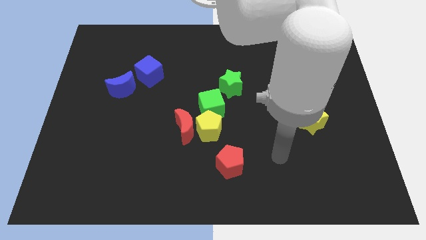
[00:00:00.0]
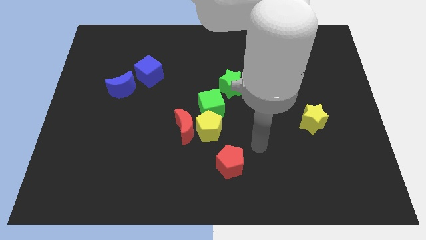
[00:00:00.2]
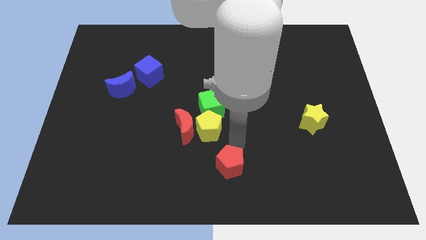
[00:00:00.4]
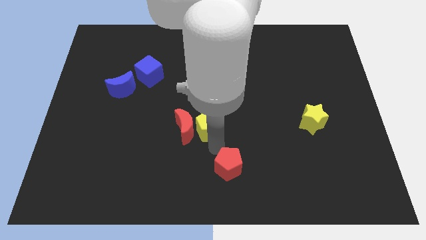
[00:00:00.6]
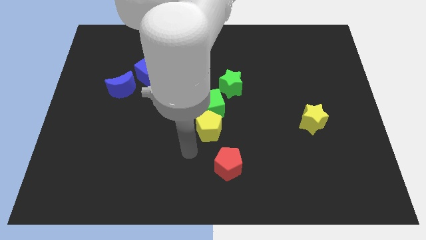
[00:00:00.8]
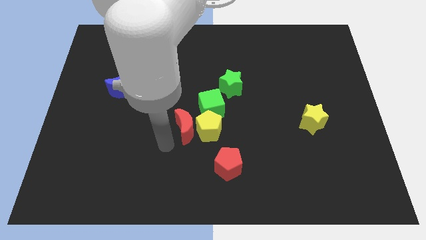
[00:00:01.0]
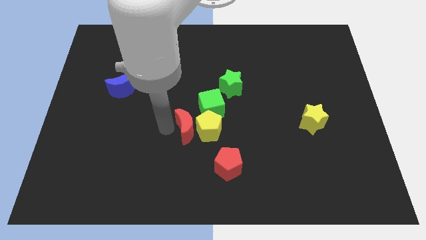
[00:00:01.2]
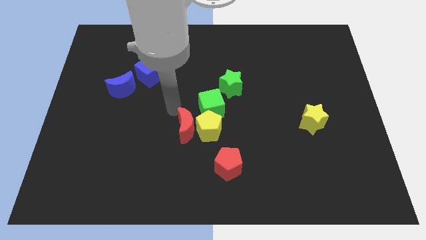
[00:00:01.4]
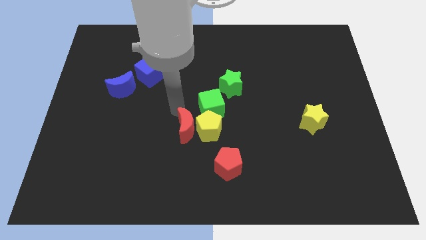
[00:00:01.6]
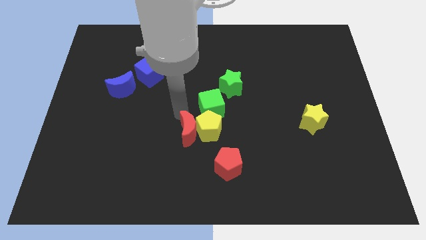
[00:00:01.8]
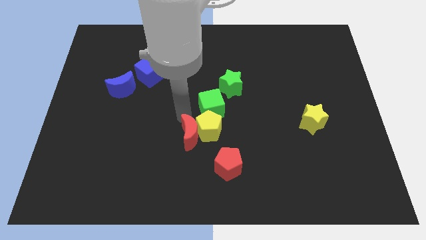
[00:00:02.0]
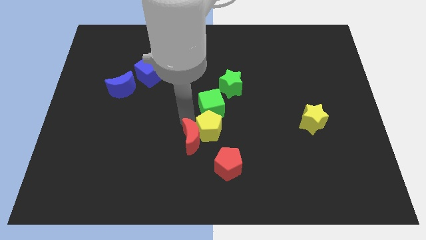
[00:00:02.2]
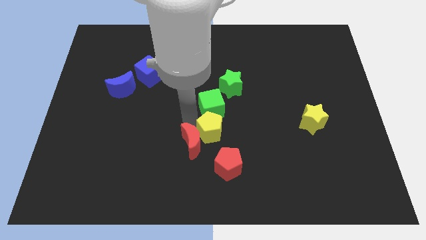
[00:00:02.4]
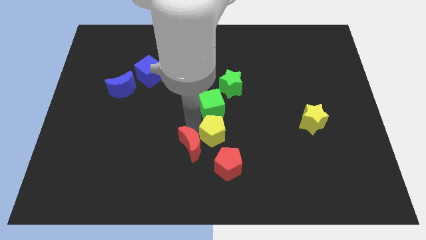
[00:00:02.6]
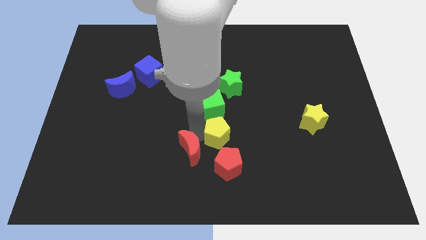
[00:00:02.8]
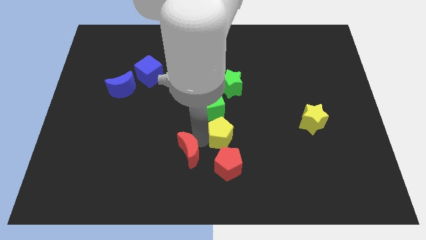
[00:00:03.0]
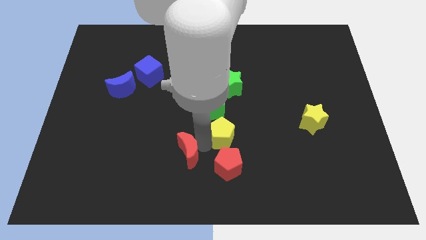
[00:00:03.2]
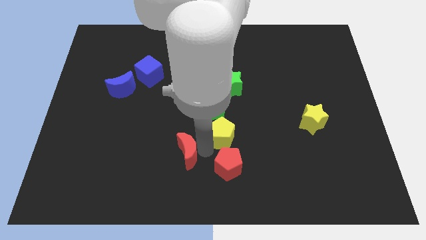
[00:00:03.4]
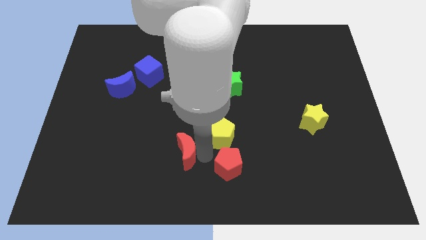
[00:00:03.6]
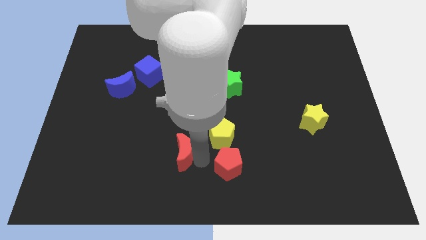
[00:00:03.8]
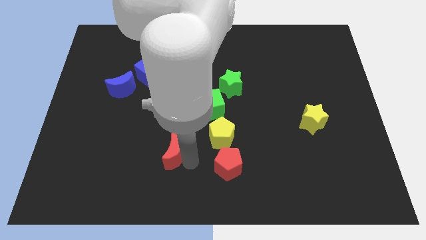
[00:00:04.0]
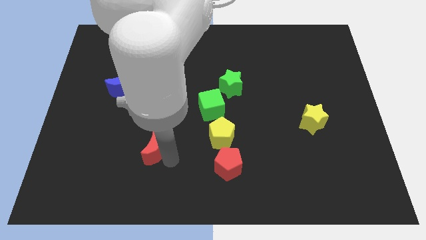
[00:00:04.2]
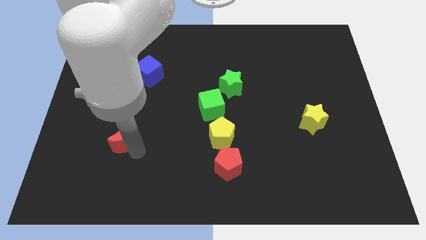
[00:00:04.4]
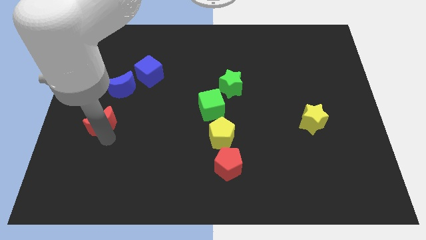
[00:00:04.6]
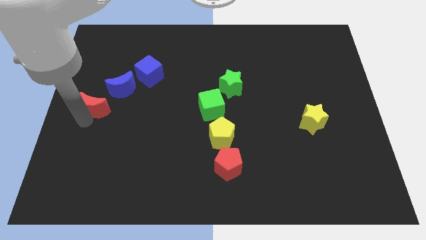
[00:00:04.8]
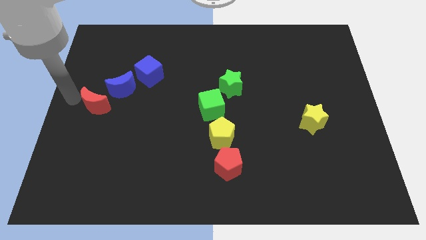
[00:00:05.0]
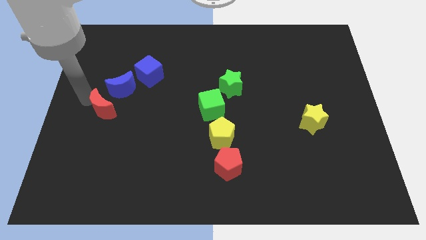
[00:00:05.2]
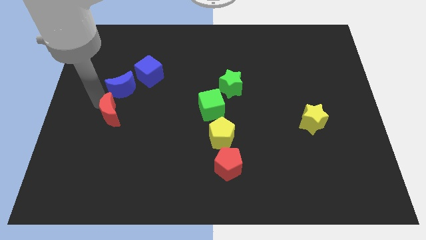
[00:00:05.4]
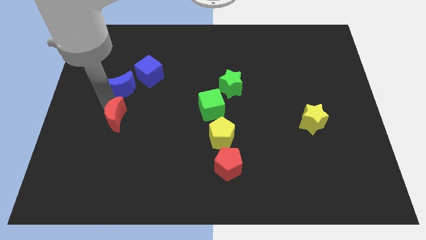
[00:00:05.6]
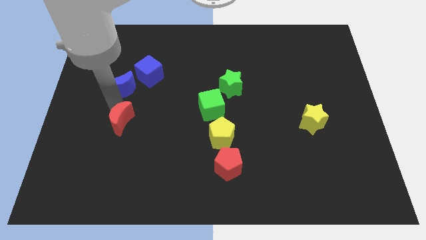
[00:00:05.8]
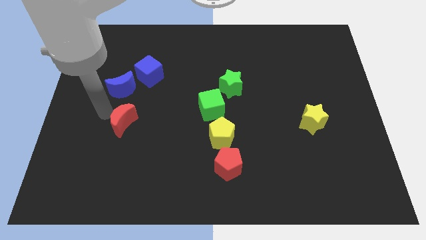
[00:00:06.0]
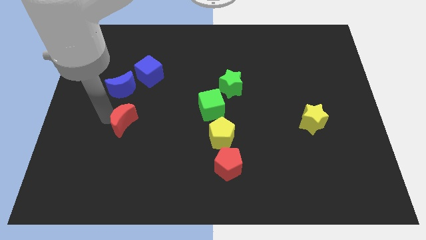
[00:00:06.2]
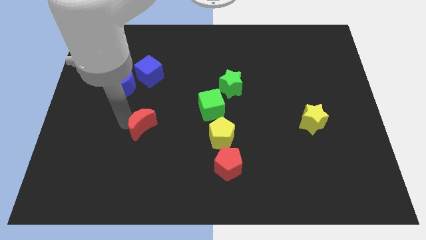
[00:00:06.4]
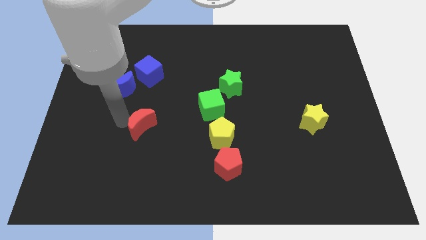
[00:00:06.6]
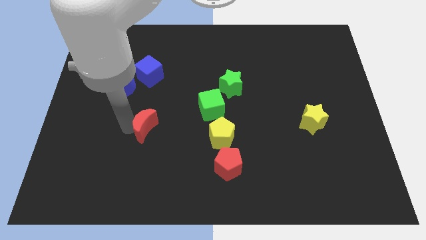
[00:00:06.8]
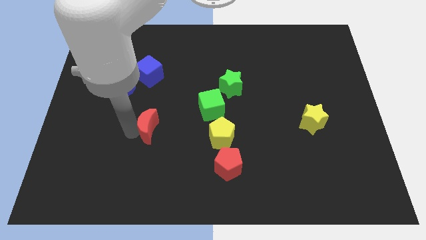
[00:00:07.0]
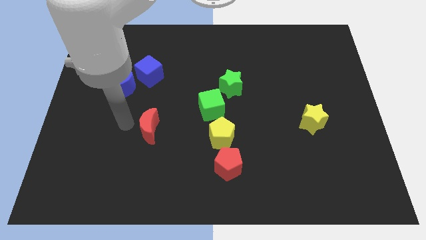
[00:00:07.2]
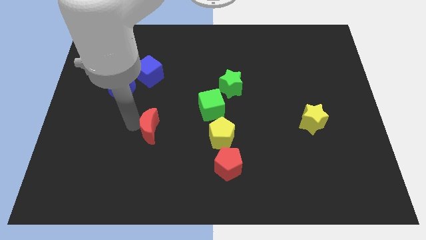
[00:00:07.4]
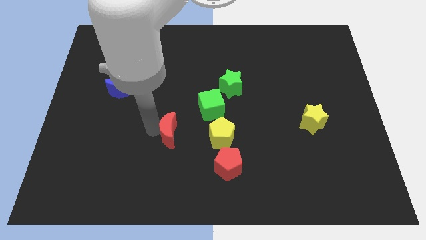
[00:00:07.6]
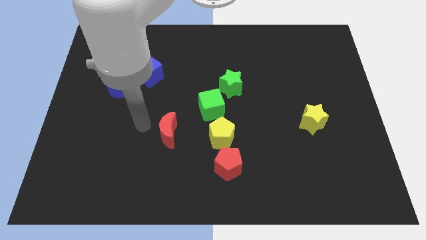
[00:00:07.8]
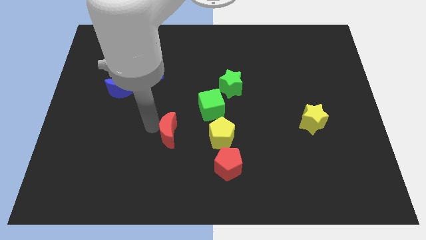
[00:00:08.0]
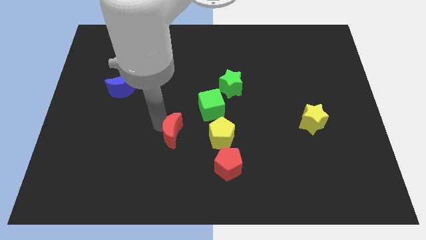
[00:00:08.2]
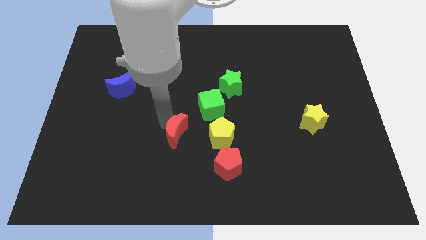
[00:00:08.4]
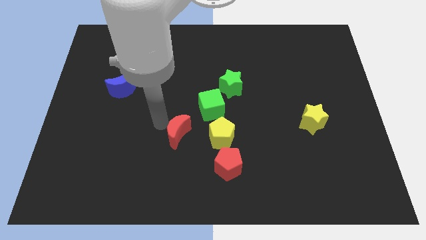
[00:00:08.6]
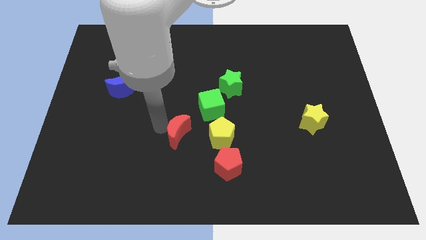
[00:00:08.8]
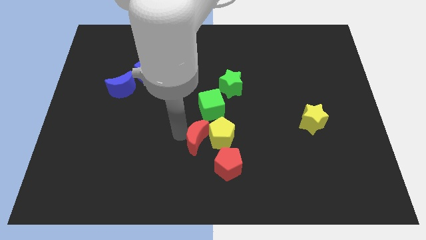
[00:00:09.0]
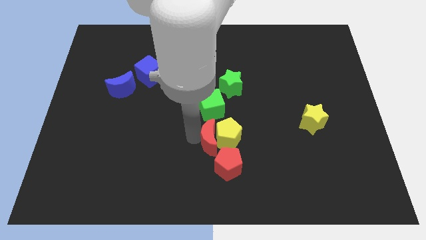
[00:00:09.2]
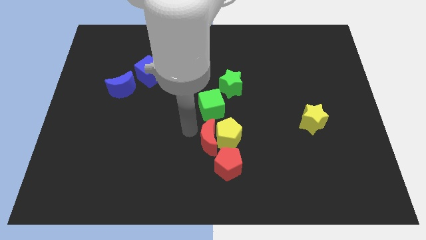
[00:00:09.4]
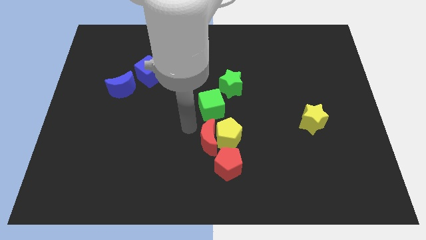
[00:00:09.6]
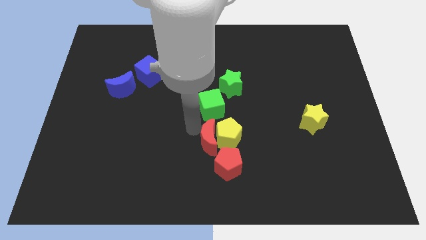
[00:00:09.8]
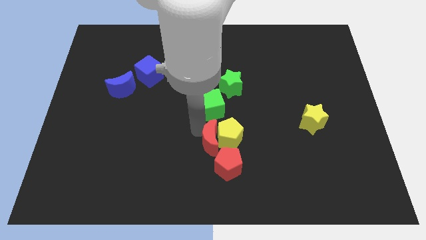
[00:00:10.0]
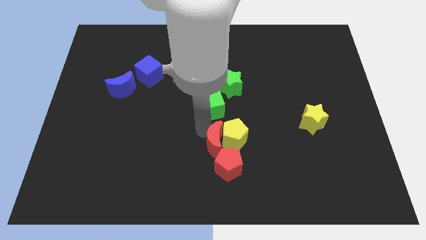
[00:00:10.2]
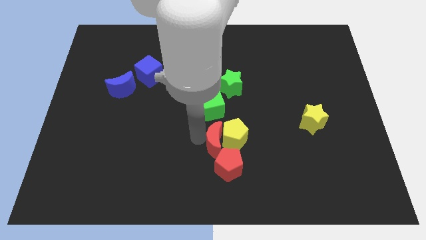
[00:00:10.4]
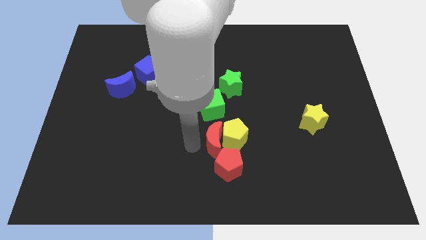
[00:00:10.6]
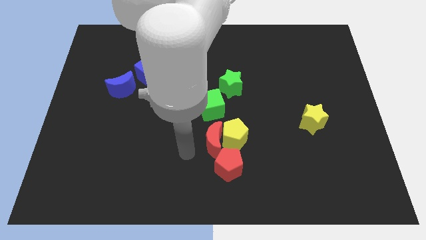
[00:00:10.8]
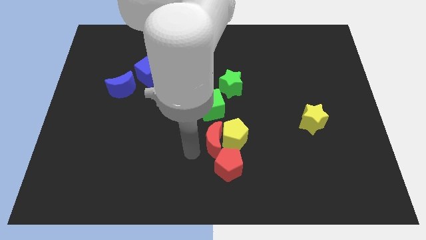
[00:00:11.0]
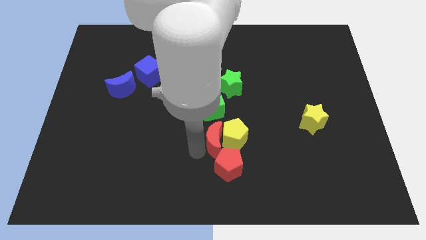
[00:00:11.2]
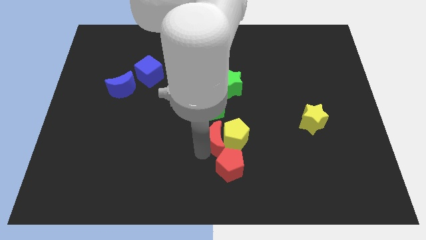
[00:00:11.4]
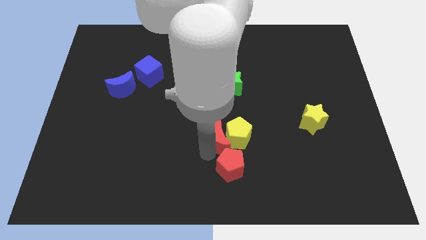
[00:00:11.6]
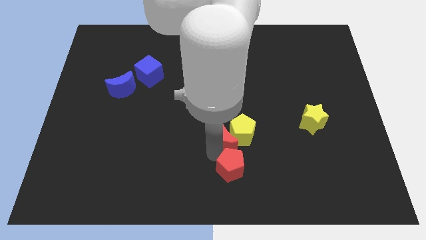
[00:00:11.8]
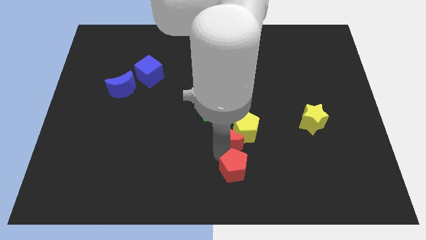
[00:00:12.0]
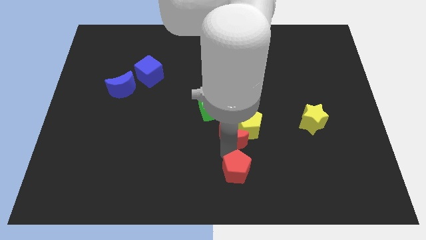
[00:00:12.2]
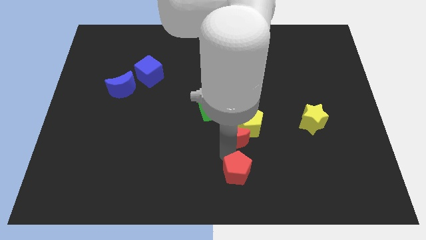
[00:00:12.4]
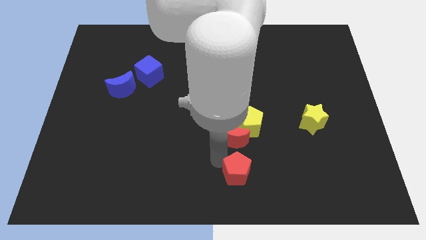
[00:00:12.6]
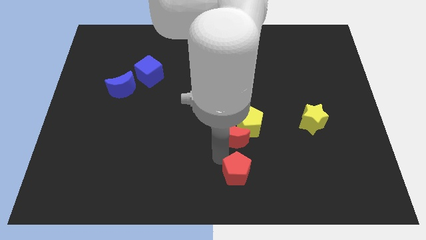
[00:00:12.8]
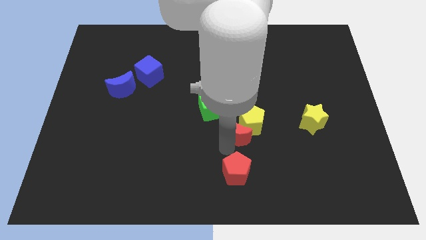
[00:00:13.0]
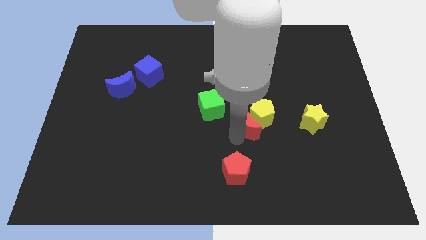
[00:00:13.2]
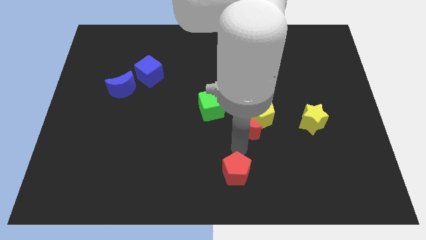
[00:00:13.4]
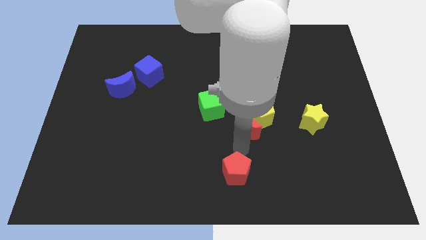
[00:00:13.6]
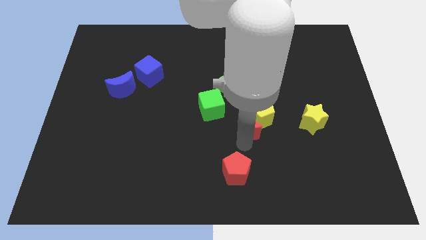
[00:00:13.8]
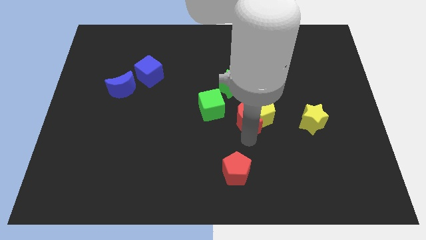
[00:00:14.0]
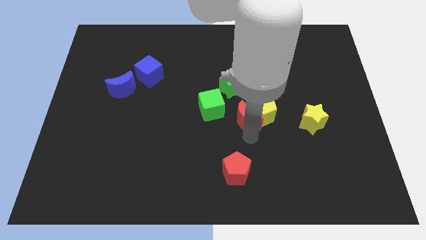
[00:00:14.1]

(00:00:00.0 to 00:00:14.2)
slide the red moon to the bottom right of the green star

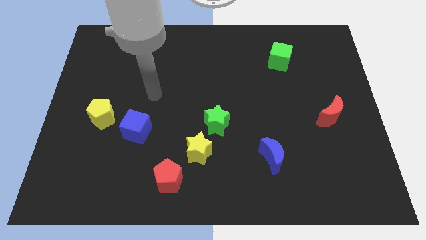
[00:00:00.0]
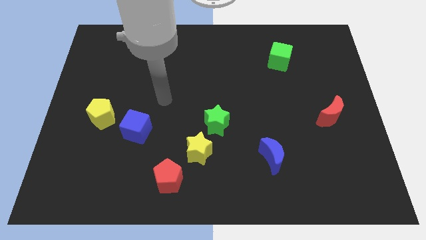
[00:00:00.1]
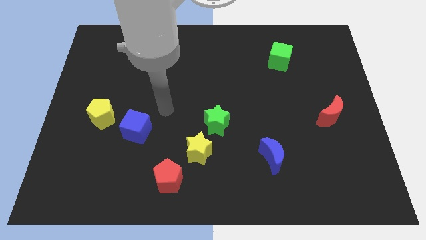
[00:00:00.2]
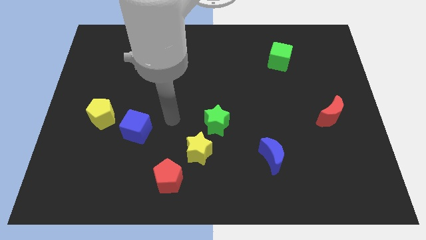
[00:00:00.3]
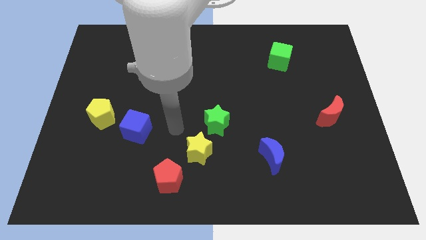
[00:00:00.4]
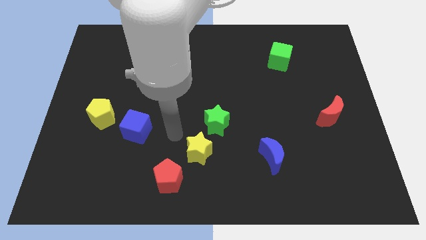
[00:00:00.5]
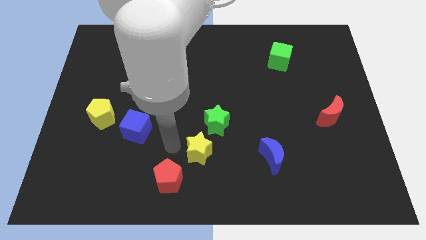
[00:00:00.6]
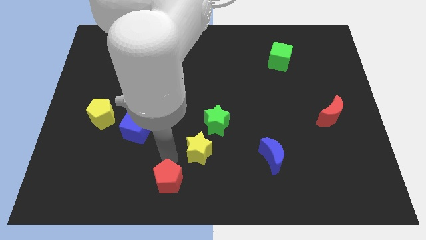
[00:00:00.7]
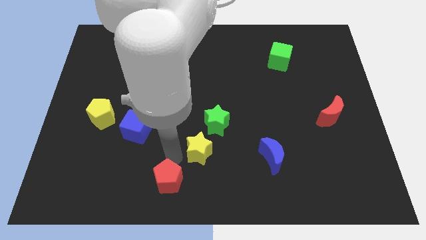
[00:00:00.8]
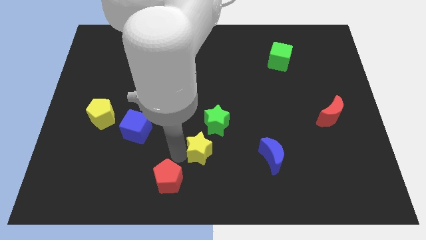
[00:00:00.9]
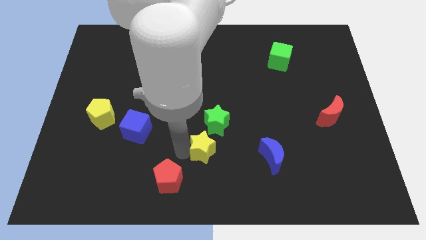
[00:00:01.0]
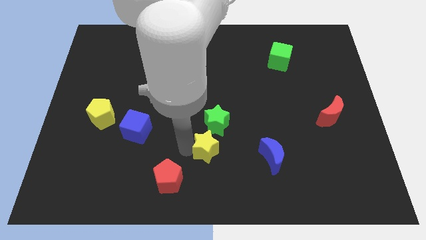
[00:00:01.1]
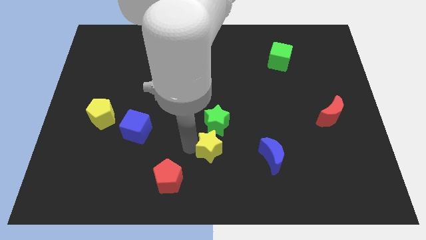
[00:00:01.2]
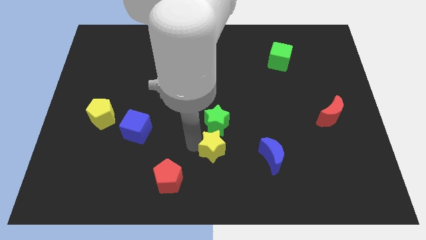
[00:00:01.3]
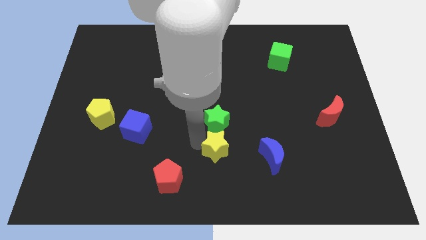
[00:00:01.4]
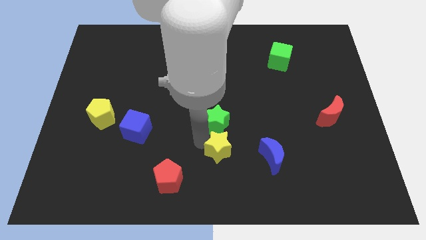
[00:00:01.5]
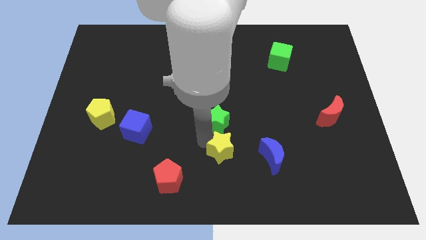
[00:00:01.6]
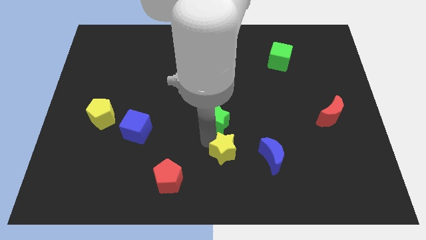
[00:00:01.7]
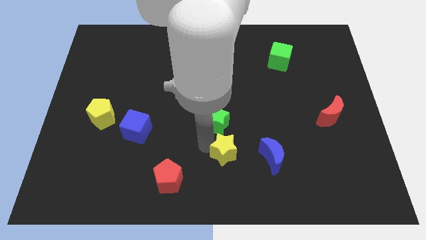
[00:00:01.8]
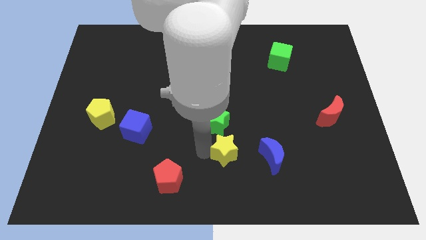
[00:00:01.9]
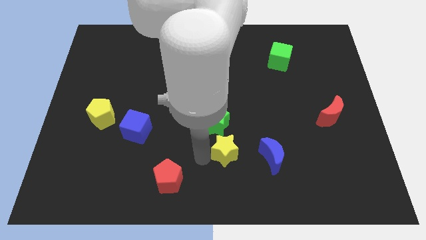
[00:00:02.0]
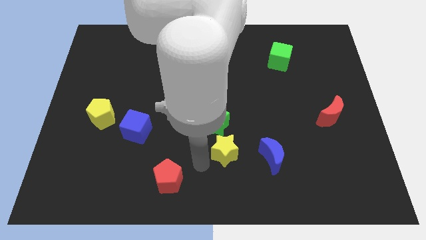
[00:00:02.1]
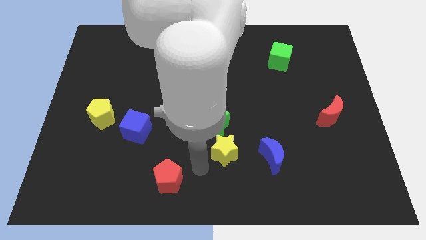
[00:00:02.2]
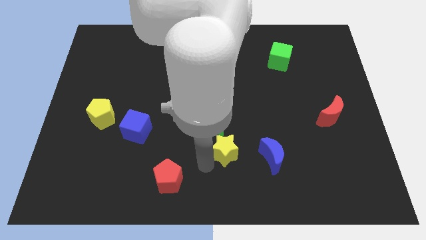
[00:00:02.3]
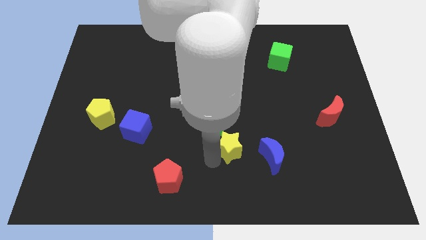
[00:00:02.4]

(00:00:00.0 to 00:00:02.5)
move the yellow star diagonally up and to the left of the blue moon
